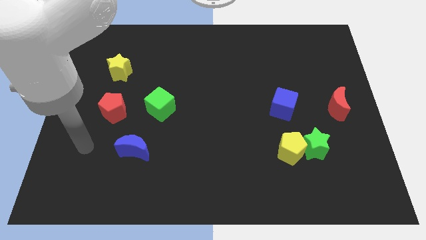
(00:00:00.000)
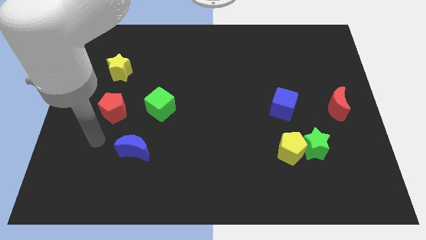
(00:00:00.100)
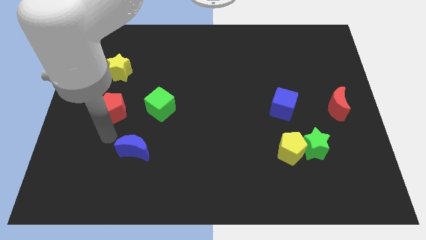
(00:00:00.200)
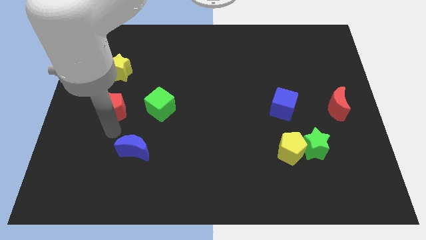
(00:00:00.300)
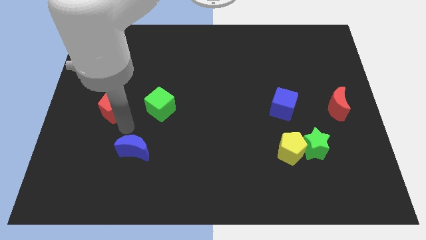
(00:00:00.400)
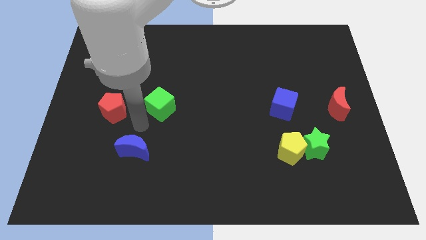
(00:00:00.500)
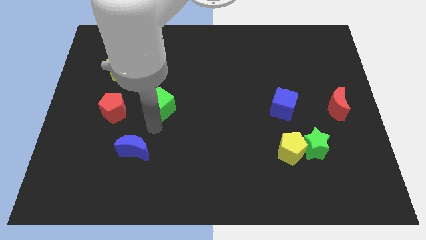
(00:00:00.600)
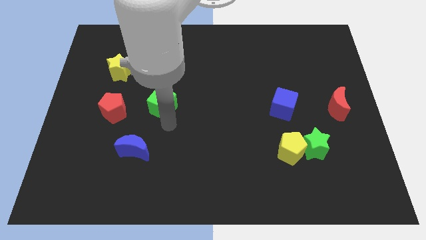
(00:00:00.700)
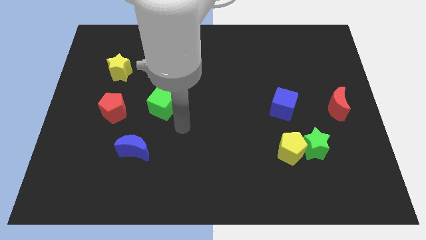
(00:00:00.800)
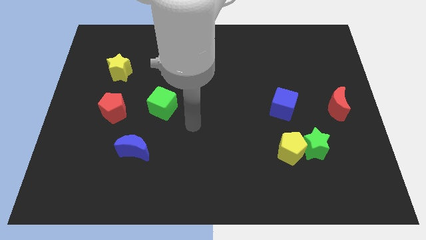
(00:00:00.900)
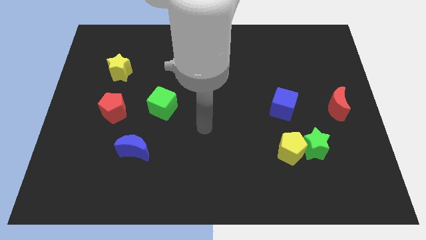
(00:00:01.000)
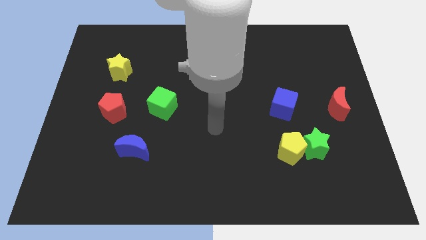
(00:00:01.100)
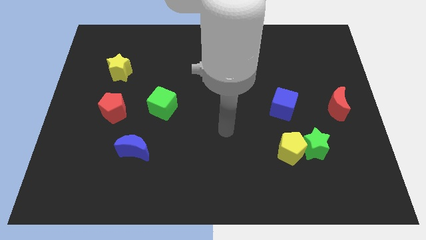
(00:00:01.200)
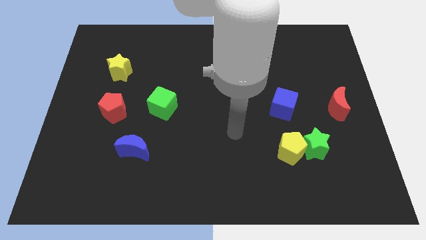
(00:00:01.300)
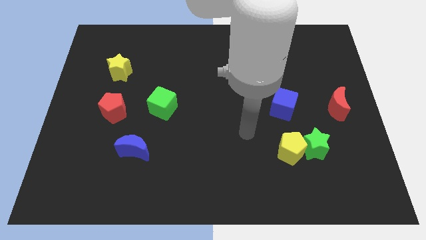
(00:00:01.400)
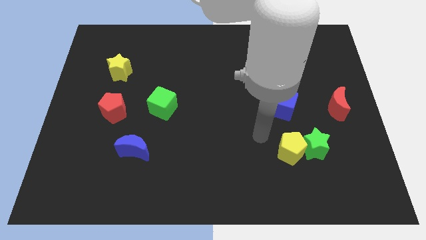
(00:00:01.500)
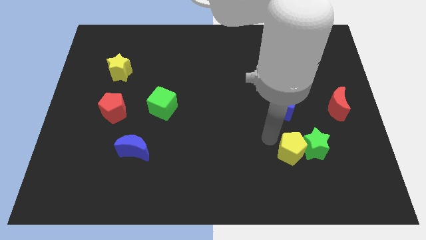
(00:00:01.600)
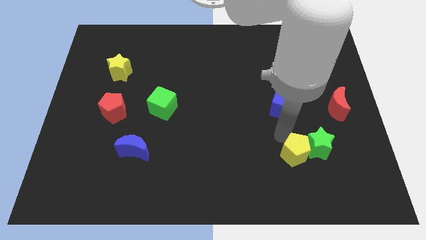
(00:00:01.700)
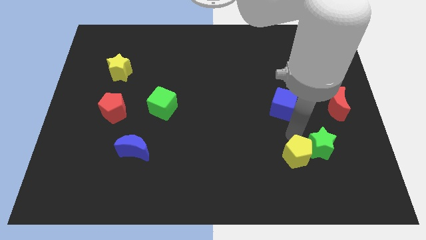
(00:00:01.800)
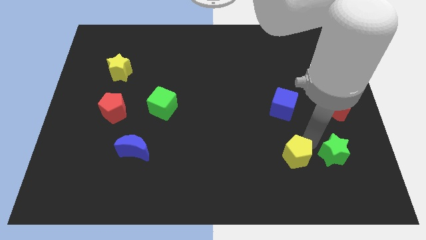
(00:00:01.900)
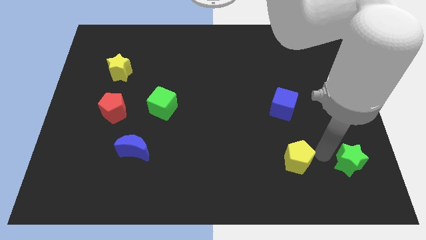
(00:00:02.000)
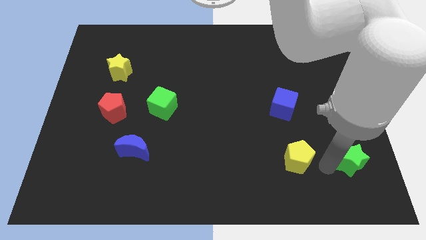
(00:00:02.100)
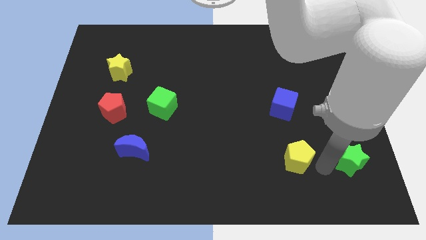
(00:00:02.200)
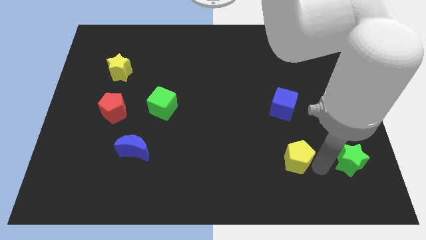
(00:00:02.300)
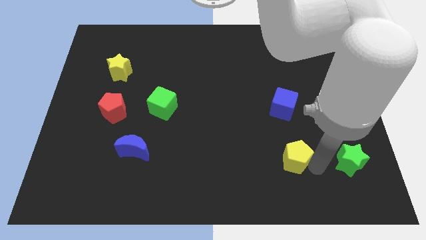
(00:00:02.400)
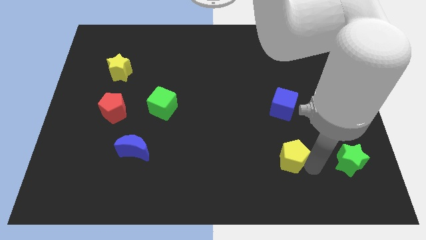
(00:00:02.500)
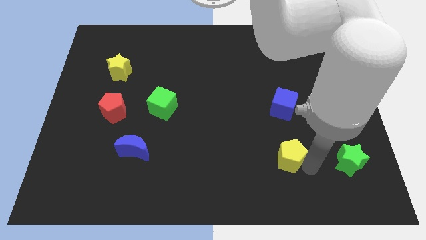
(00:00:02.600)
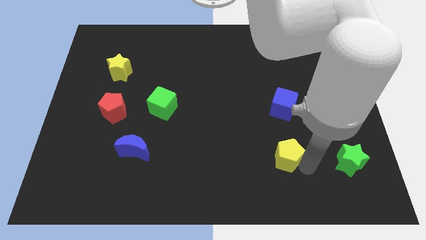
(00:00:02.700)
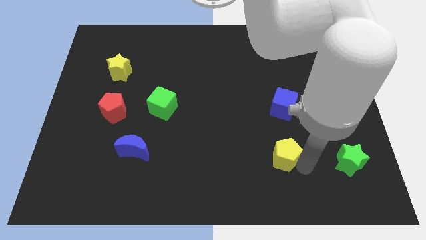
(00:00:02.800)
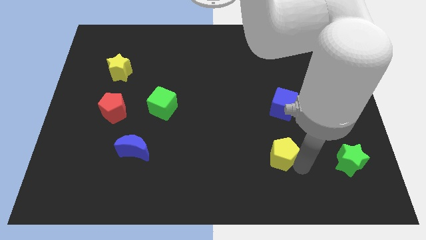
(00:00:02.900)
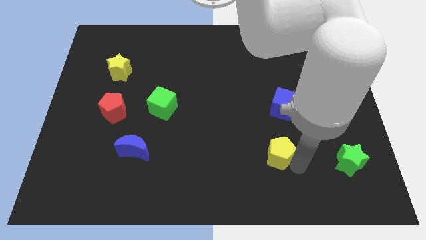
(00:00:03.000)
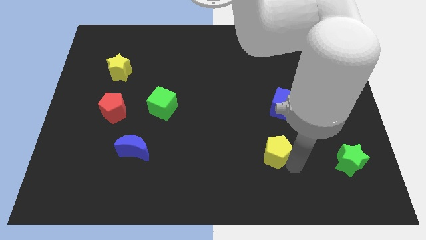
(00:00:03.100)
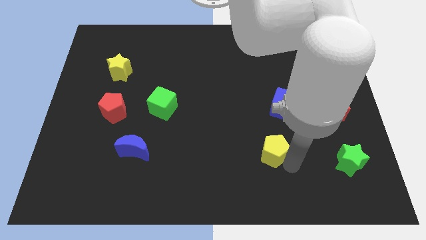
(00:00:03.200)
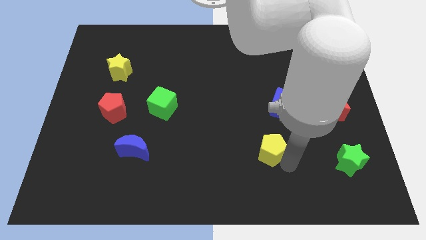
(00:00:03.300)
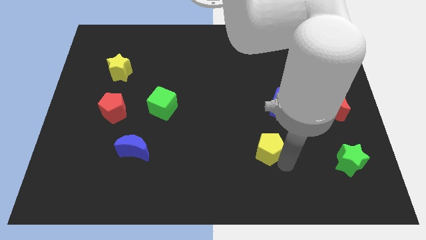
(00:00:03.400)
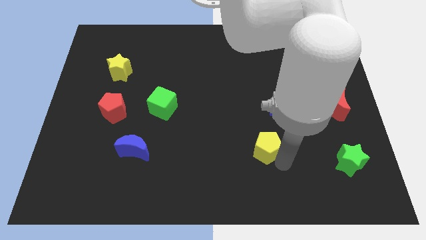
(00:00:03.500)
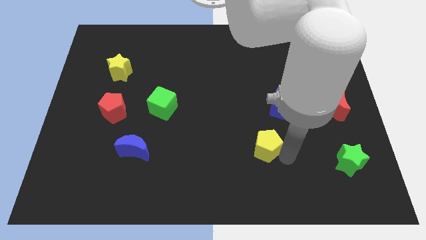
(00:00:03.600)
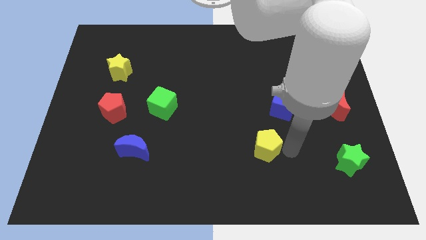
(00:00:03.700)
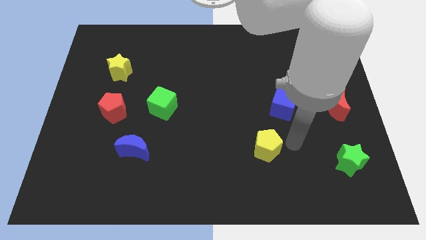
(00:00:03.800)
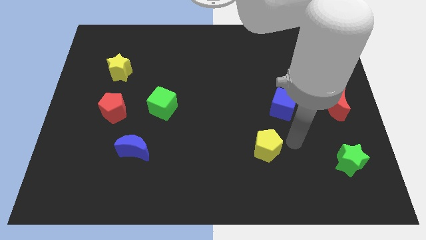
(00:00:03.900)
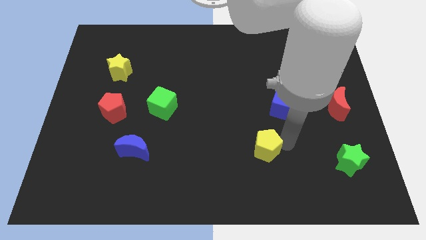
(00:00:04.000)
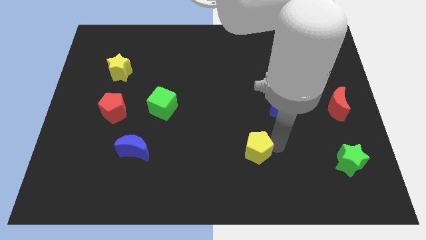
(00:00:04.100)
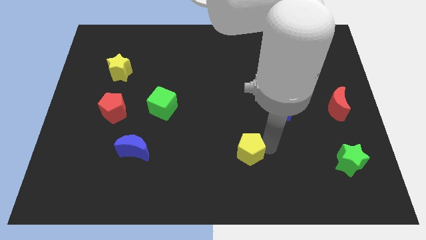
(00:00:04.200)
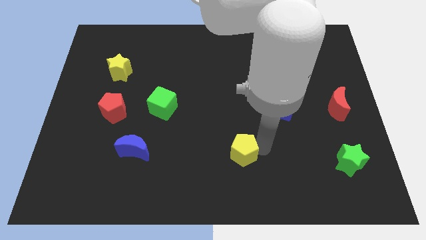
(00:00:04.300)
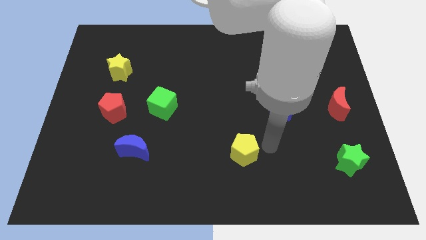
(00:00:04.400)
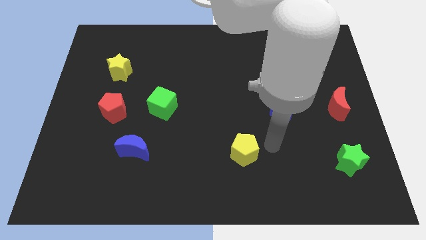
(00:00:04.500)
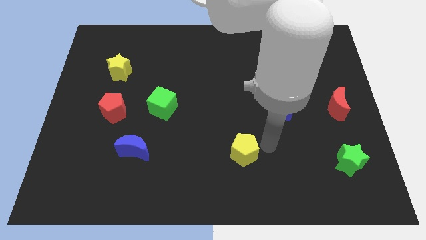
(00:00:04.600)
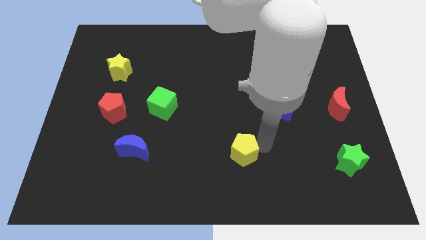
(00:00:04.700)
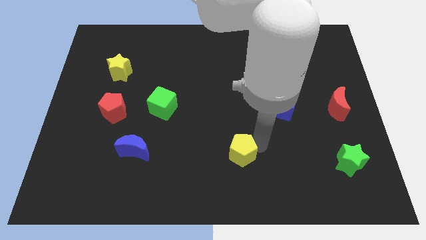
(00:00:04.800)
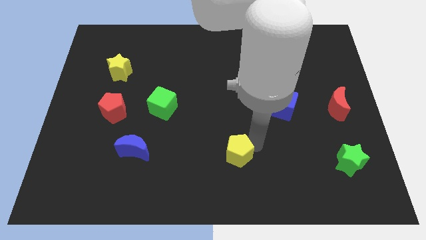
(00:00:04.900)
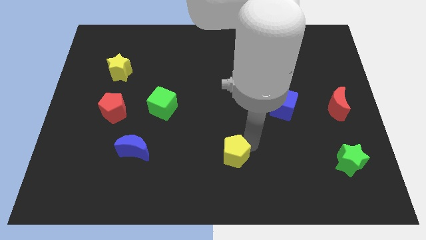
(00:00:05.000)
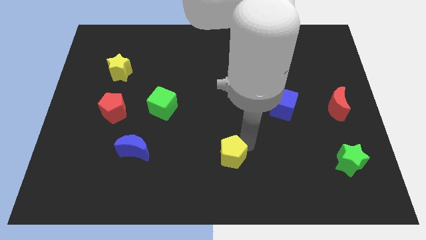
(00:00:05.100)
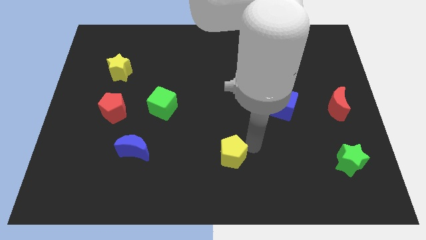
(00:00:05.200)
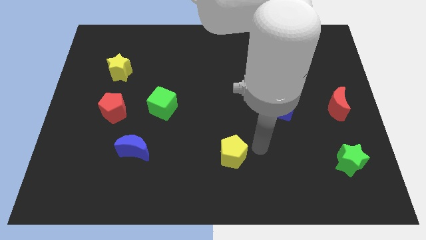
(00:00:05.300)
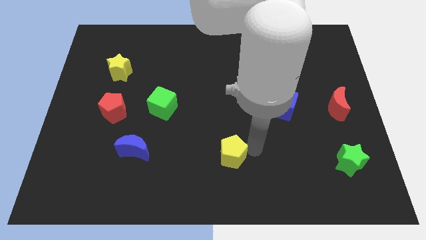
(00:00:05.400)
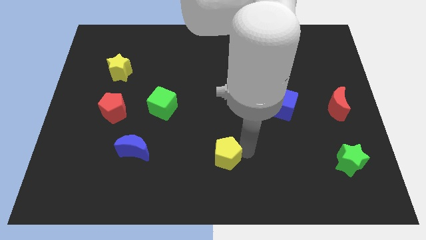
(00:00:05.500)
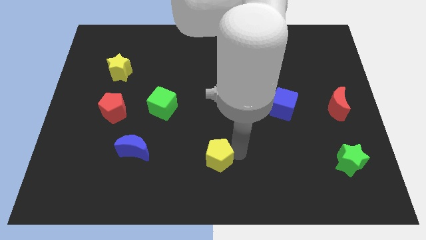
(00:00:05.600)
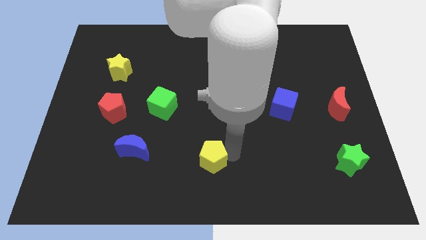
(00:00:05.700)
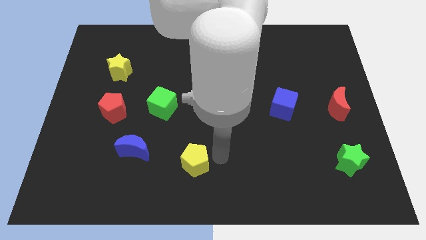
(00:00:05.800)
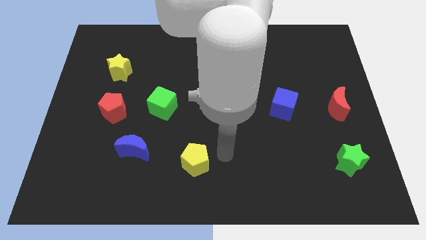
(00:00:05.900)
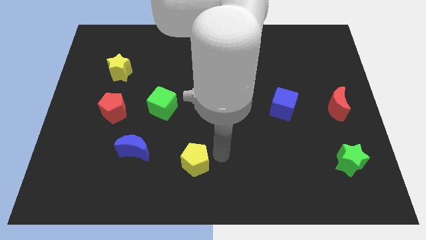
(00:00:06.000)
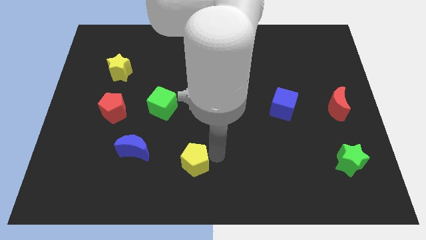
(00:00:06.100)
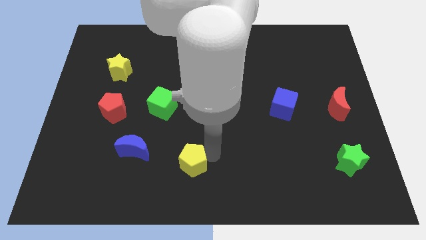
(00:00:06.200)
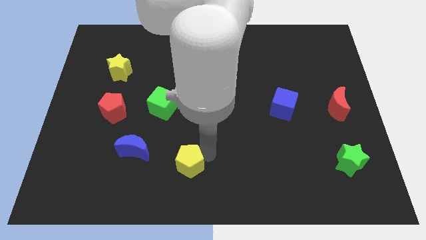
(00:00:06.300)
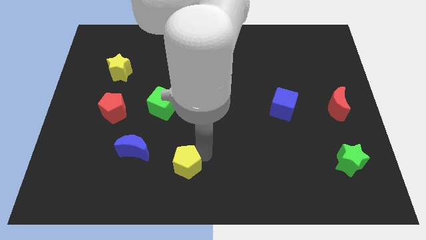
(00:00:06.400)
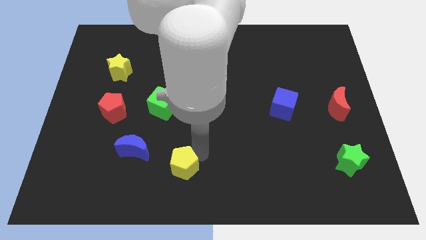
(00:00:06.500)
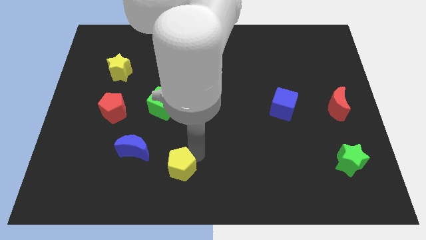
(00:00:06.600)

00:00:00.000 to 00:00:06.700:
move the yellow pentagon diagonally down and to the right of the blue moon
